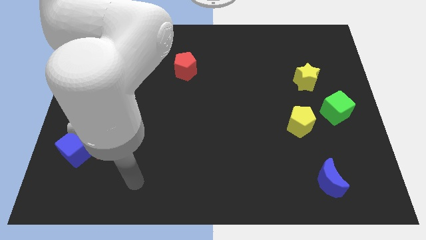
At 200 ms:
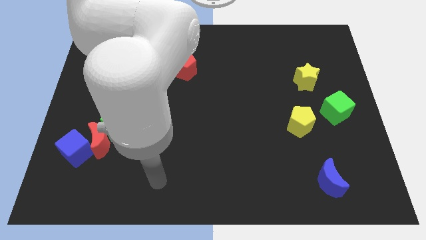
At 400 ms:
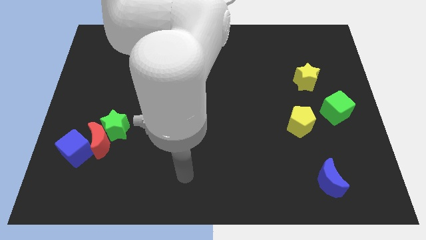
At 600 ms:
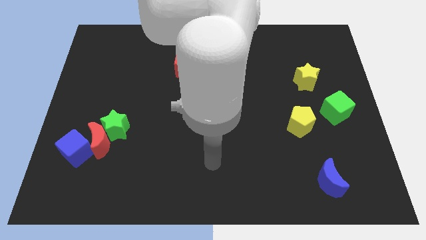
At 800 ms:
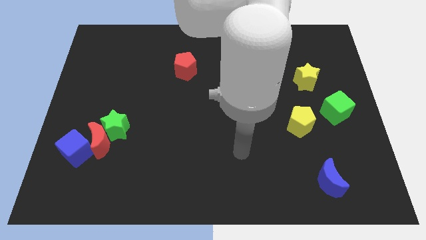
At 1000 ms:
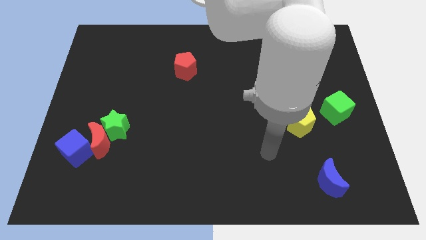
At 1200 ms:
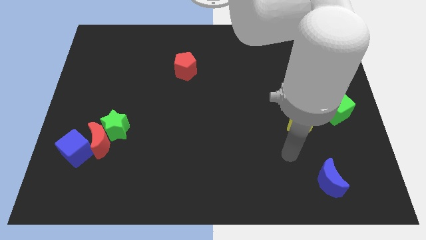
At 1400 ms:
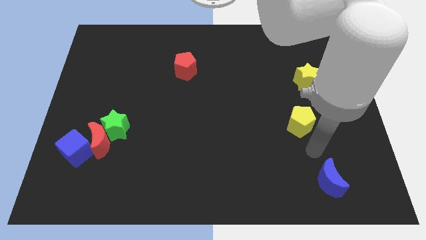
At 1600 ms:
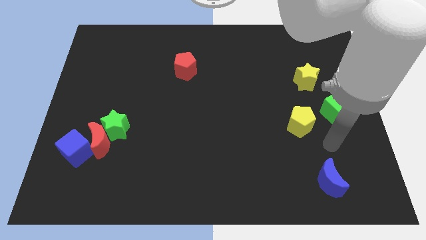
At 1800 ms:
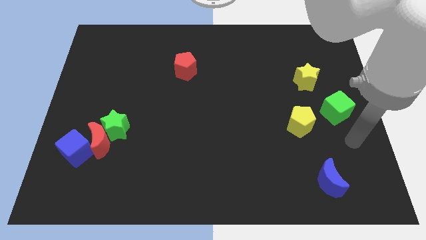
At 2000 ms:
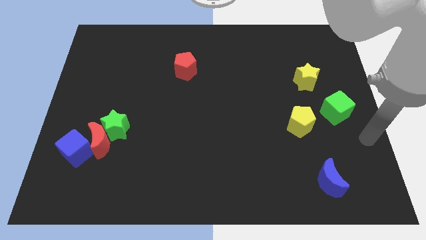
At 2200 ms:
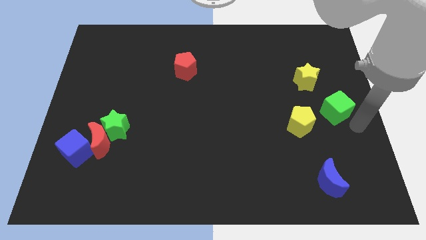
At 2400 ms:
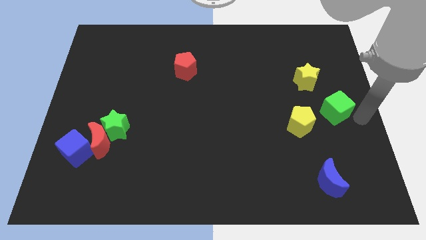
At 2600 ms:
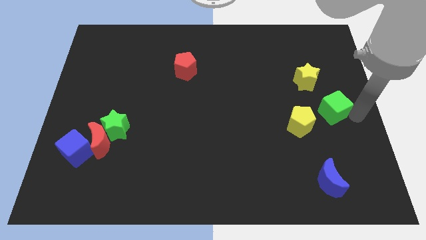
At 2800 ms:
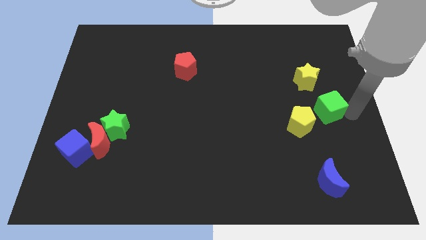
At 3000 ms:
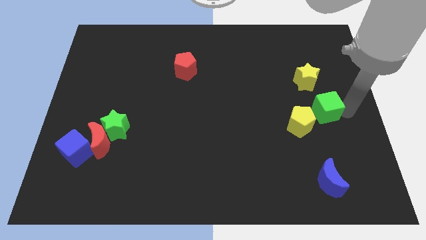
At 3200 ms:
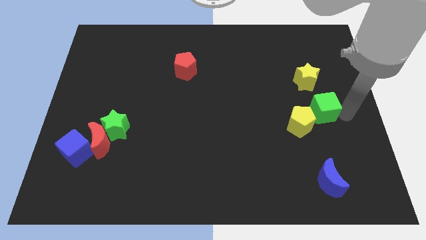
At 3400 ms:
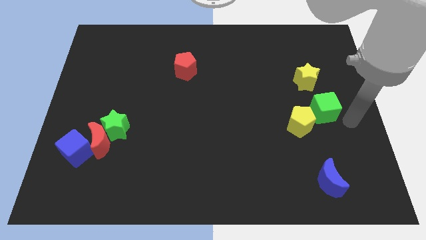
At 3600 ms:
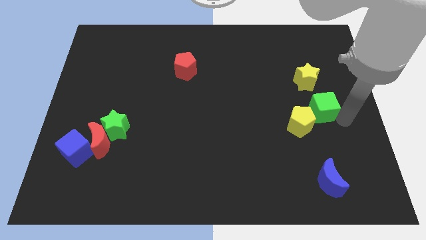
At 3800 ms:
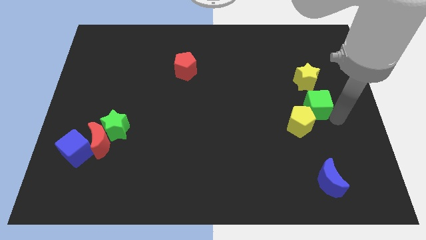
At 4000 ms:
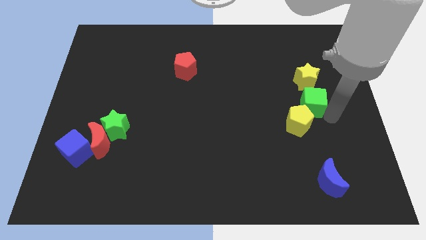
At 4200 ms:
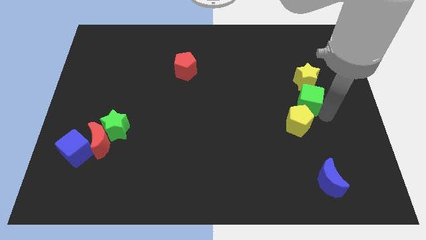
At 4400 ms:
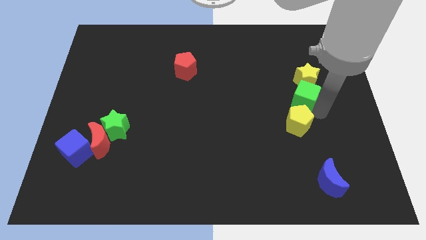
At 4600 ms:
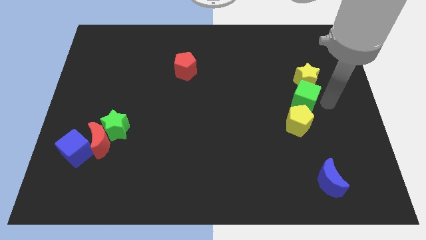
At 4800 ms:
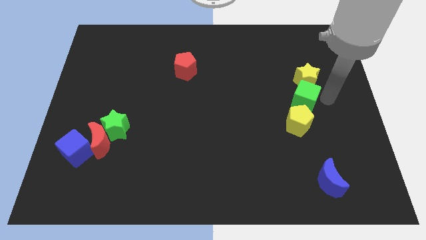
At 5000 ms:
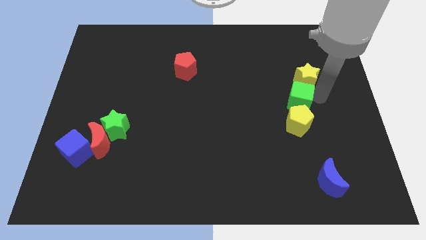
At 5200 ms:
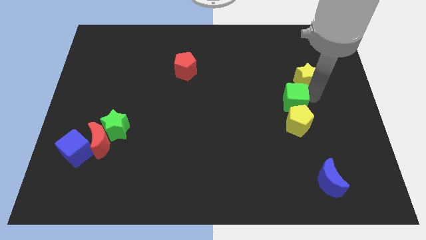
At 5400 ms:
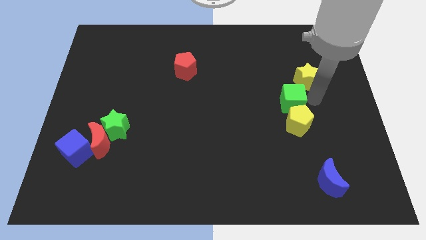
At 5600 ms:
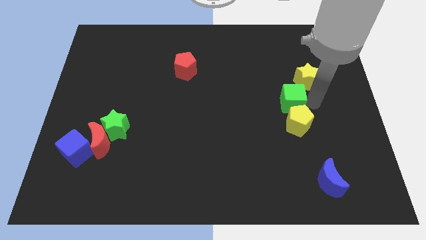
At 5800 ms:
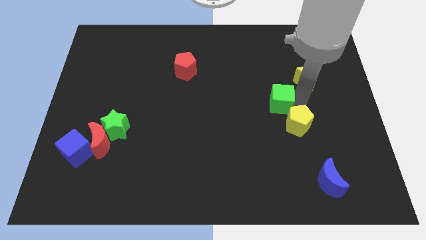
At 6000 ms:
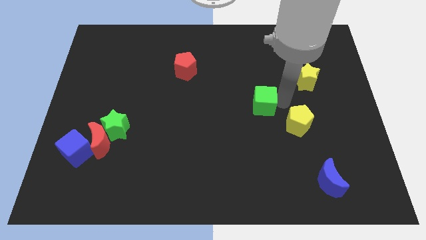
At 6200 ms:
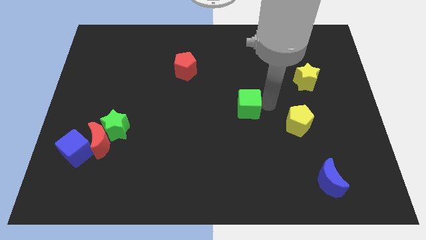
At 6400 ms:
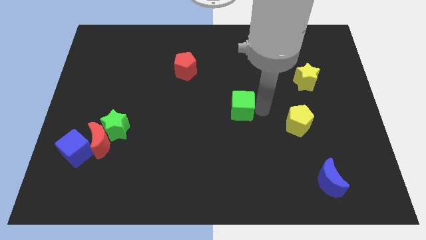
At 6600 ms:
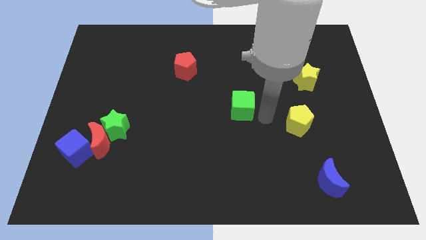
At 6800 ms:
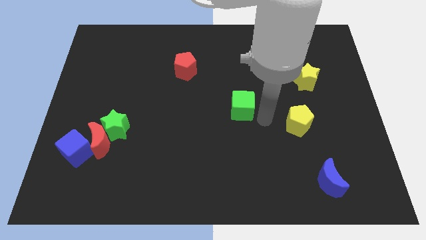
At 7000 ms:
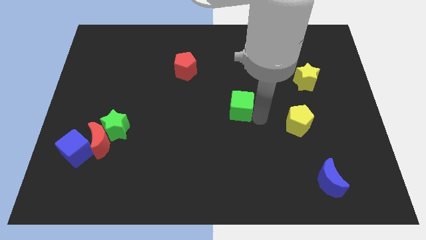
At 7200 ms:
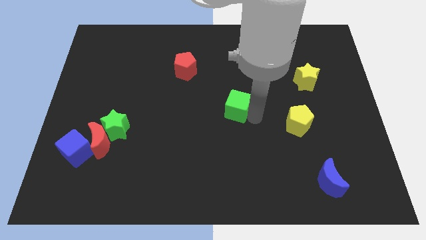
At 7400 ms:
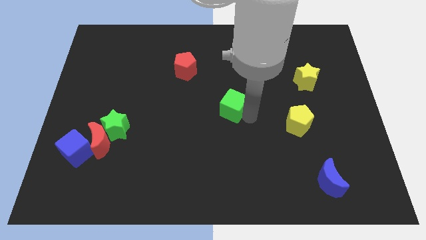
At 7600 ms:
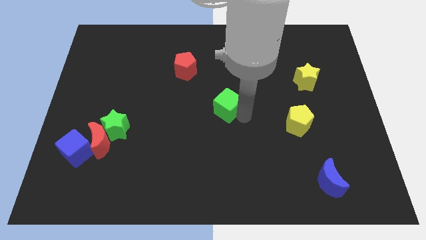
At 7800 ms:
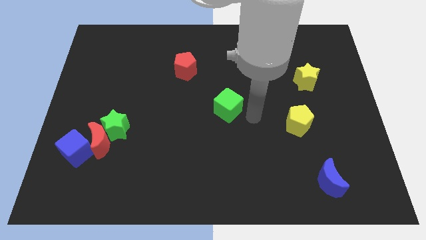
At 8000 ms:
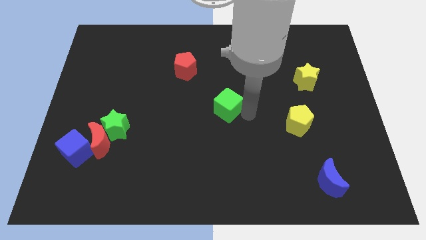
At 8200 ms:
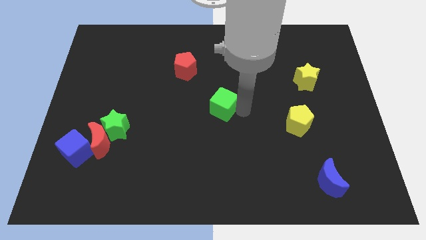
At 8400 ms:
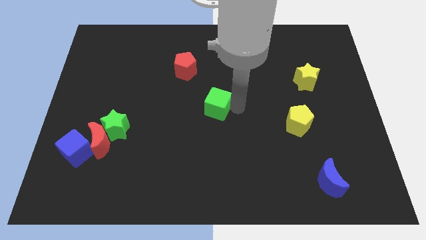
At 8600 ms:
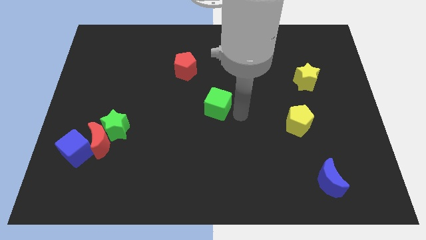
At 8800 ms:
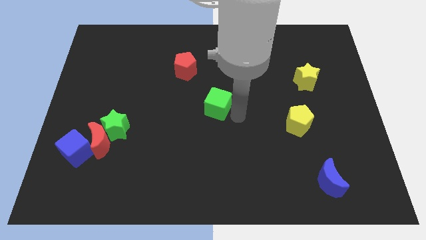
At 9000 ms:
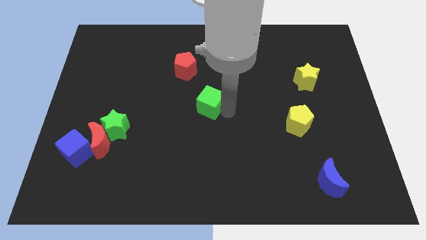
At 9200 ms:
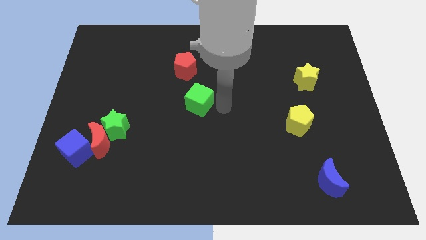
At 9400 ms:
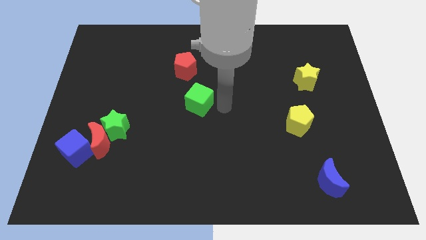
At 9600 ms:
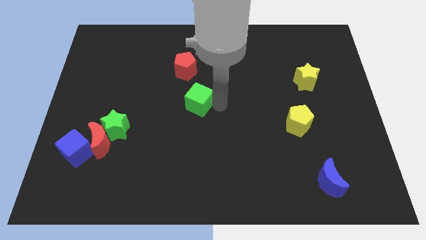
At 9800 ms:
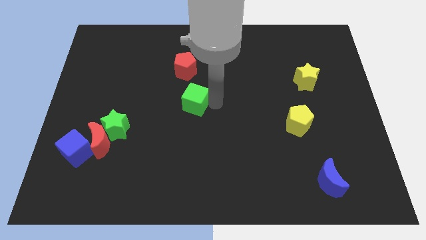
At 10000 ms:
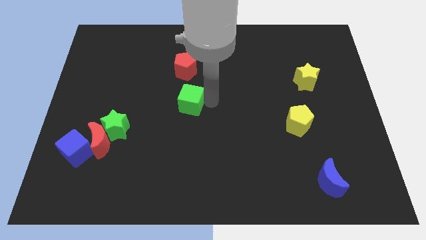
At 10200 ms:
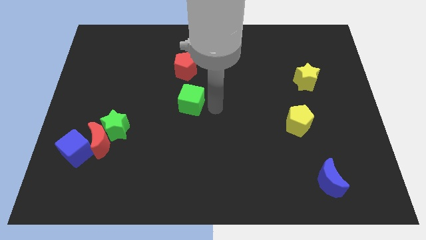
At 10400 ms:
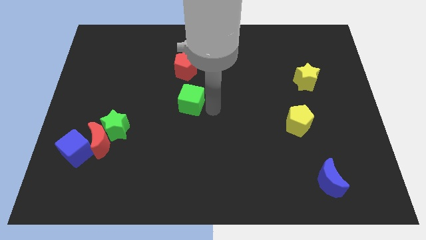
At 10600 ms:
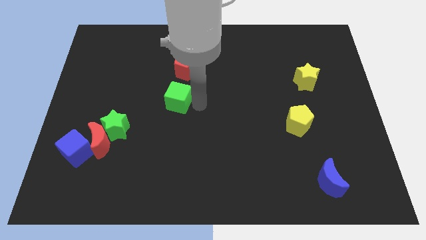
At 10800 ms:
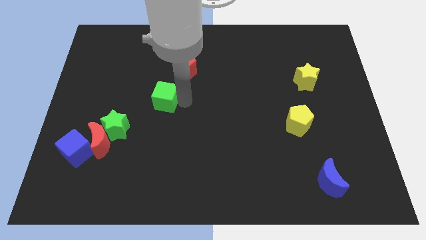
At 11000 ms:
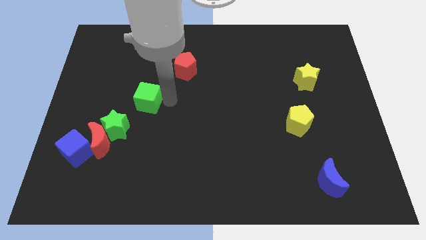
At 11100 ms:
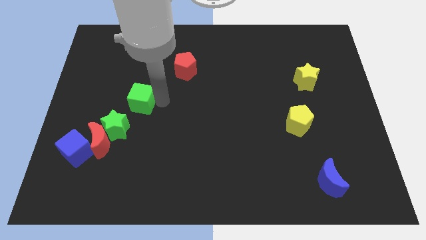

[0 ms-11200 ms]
slide the green cube above the green star

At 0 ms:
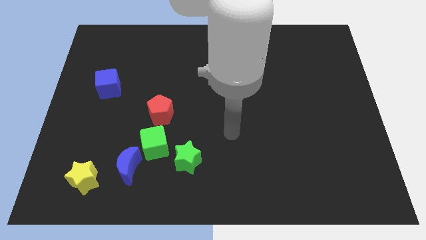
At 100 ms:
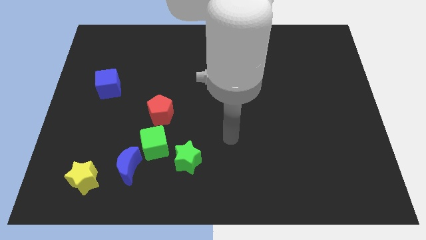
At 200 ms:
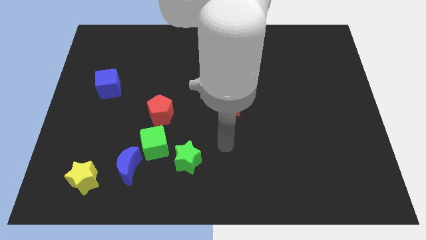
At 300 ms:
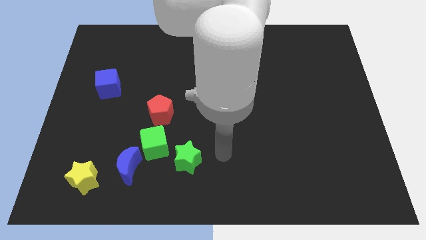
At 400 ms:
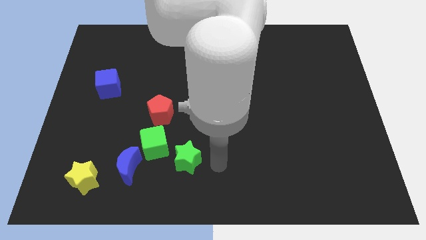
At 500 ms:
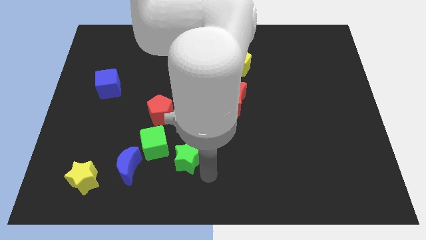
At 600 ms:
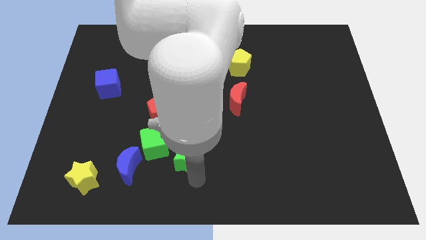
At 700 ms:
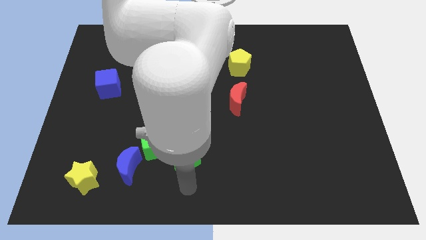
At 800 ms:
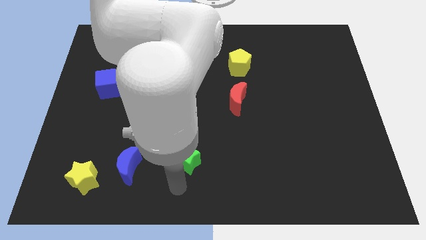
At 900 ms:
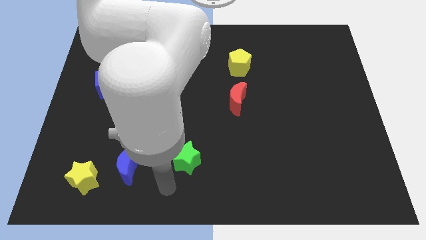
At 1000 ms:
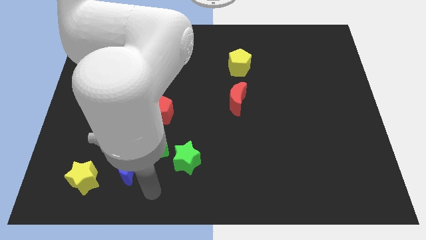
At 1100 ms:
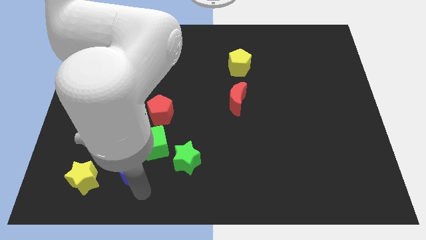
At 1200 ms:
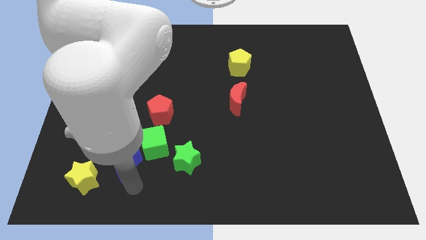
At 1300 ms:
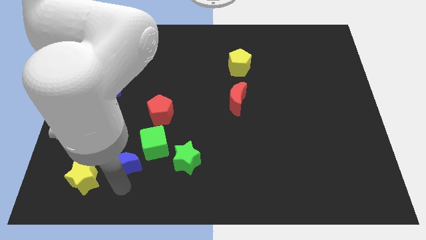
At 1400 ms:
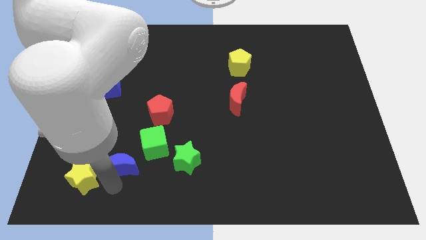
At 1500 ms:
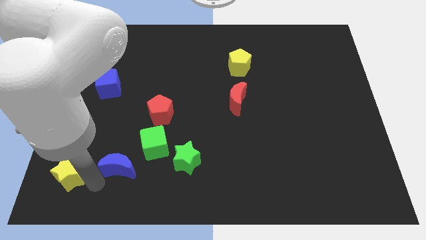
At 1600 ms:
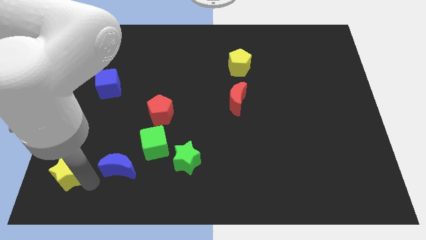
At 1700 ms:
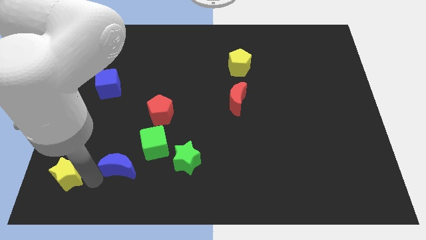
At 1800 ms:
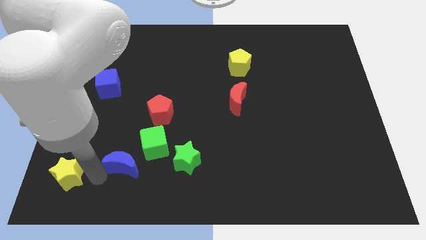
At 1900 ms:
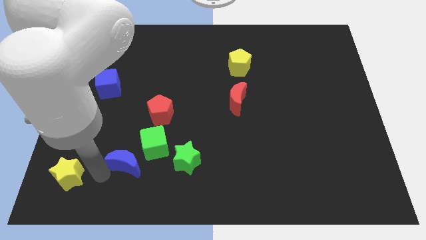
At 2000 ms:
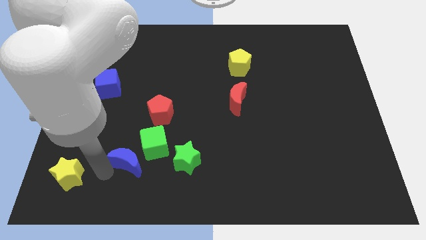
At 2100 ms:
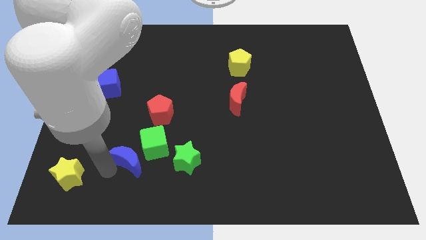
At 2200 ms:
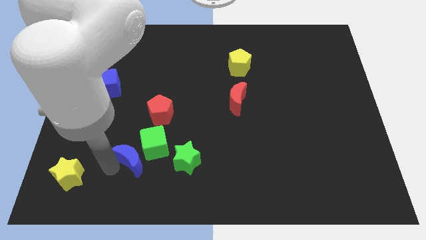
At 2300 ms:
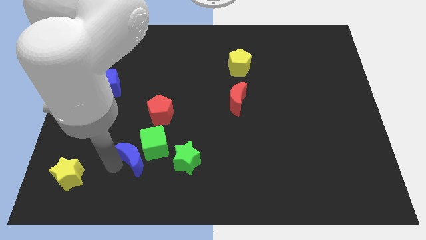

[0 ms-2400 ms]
slide the blue moon below the red pentagon
